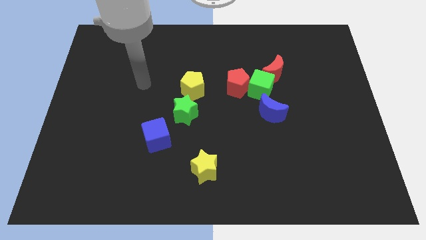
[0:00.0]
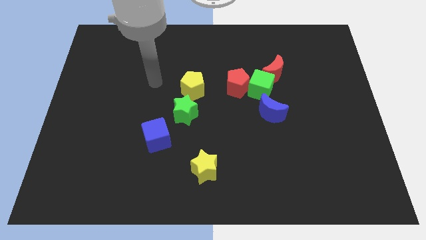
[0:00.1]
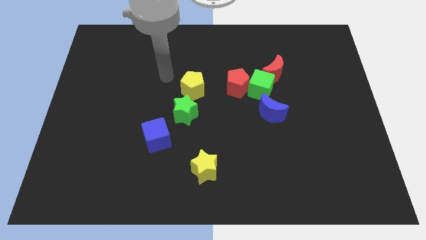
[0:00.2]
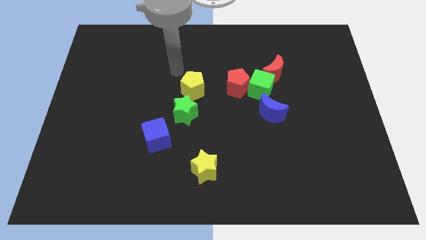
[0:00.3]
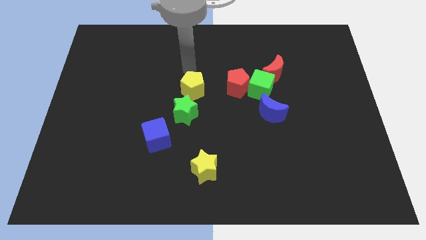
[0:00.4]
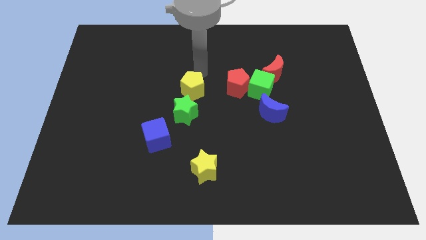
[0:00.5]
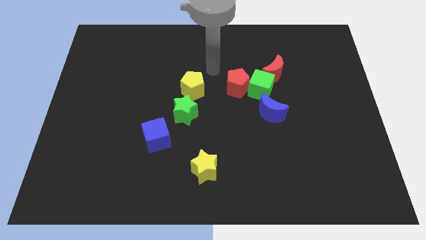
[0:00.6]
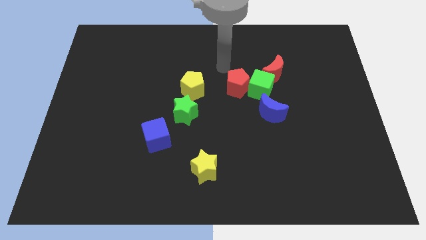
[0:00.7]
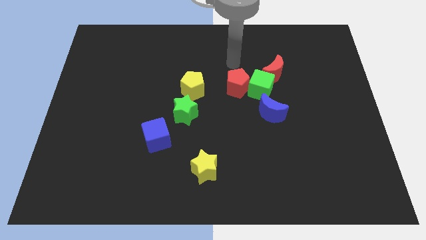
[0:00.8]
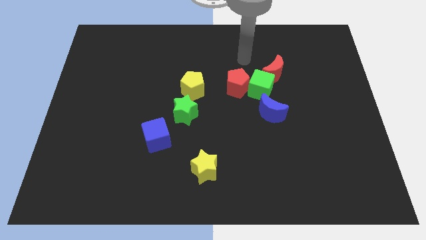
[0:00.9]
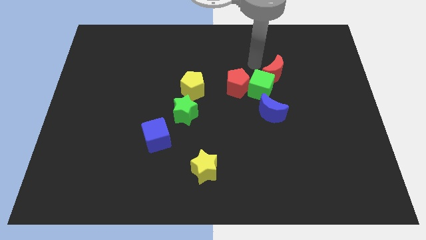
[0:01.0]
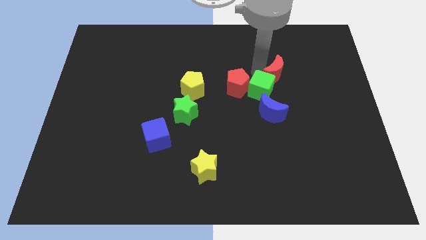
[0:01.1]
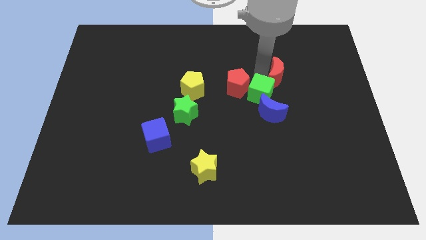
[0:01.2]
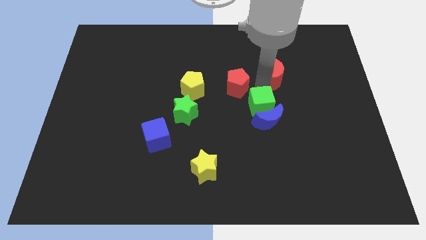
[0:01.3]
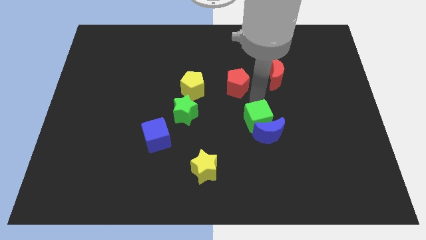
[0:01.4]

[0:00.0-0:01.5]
move the red pentagon away from the green cube

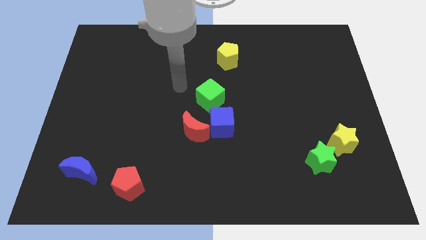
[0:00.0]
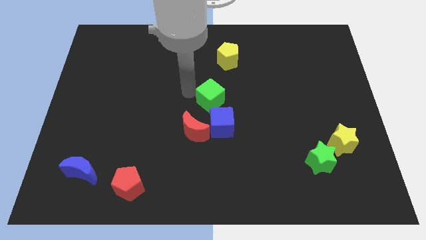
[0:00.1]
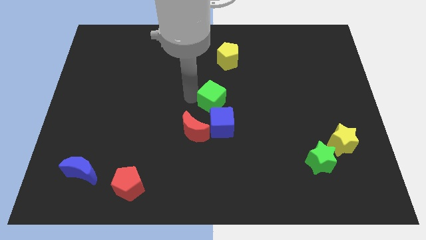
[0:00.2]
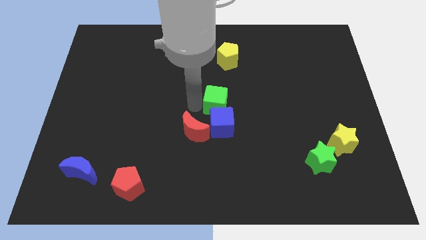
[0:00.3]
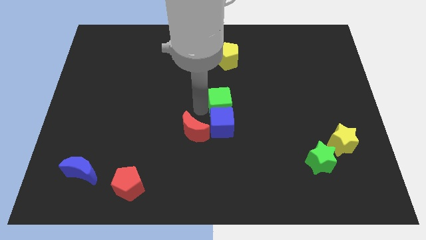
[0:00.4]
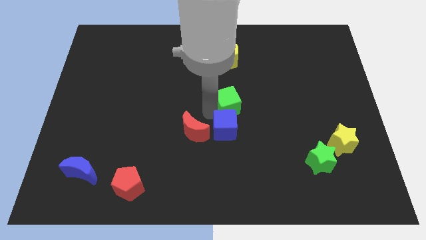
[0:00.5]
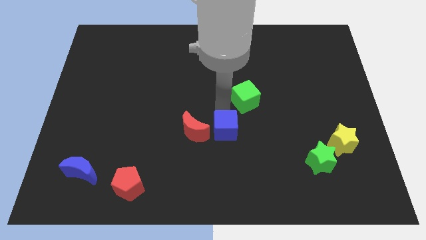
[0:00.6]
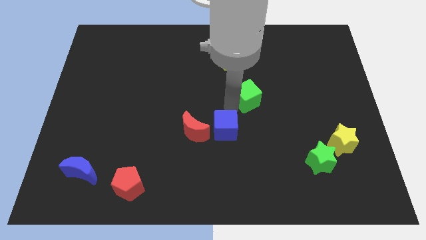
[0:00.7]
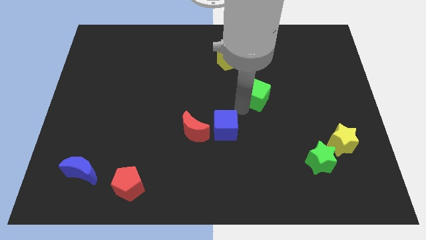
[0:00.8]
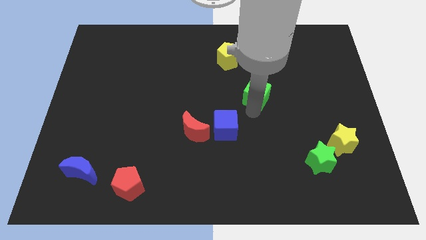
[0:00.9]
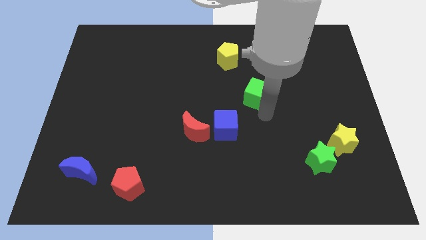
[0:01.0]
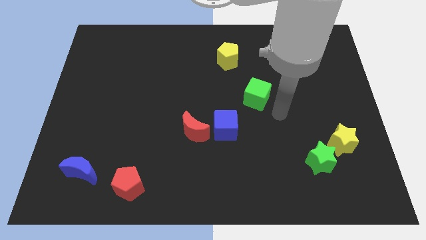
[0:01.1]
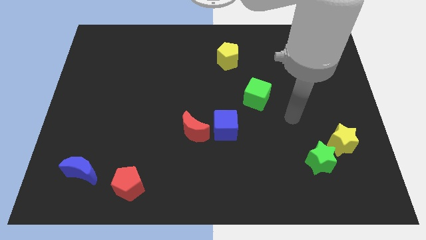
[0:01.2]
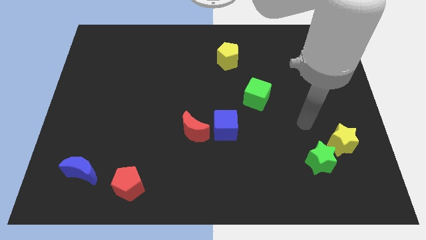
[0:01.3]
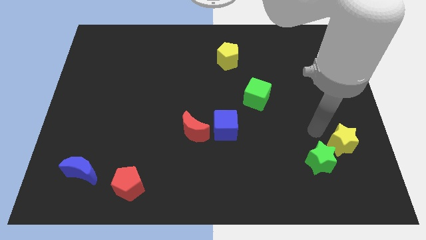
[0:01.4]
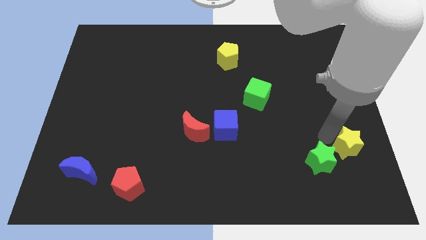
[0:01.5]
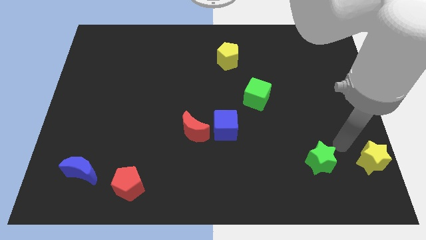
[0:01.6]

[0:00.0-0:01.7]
move the green star away from the yellow star

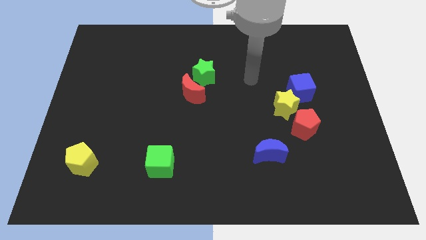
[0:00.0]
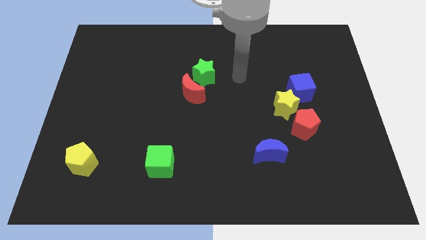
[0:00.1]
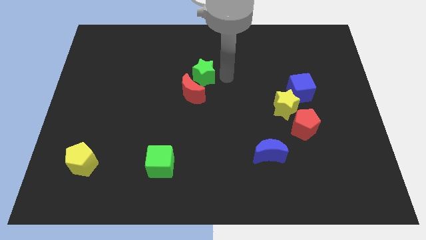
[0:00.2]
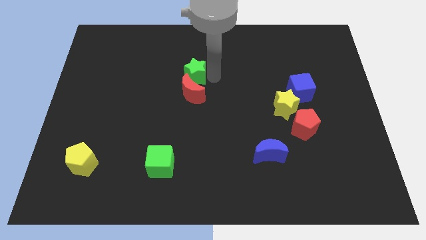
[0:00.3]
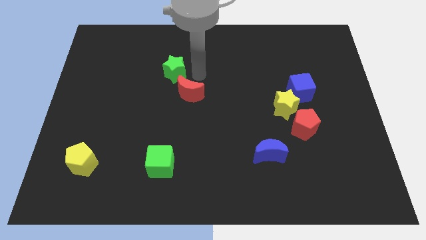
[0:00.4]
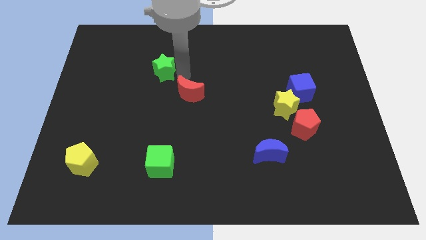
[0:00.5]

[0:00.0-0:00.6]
separate the red moon from the green star

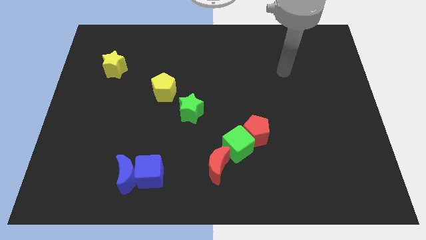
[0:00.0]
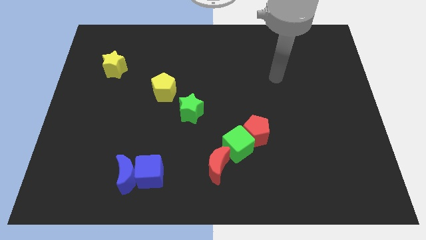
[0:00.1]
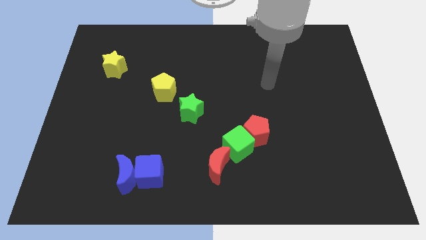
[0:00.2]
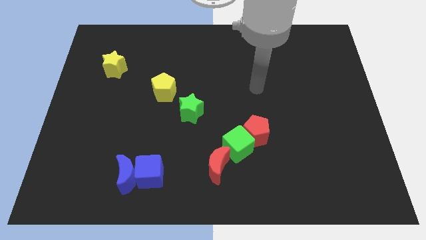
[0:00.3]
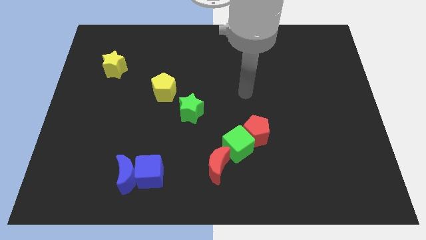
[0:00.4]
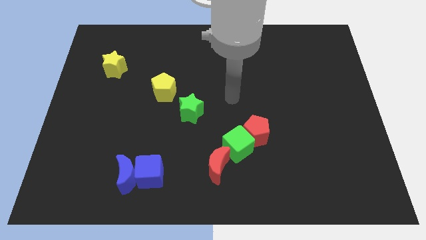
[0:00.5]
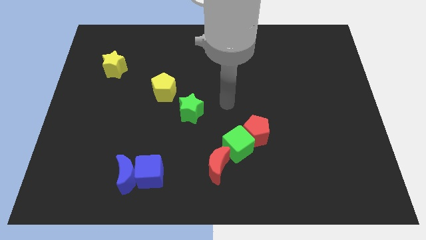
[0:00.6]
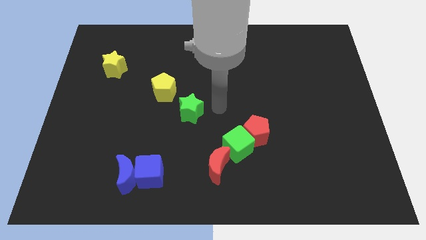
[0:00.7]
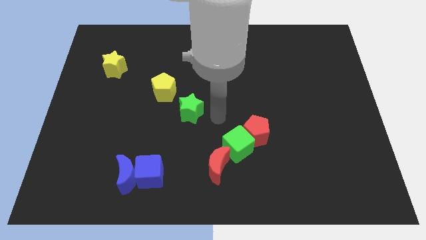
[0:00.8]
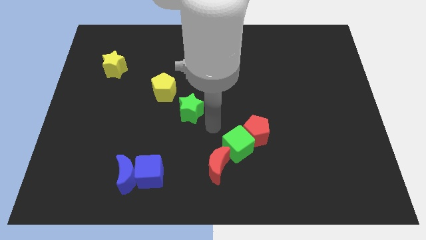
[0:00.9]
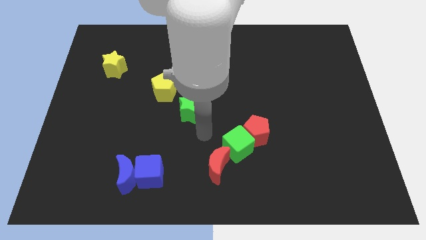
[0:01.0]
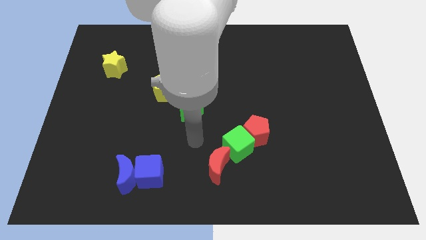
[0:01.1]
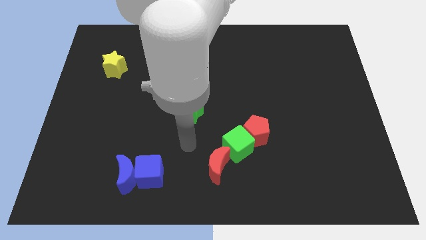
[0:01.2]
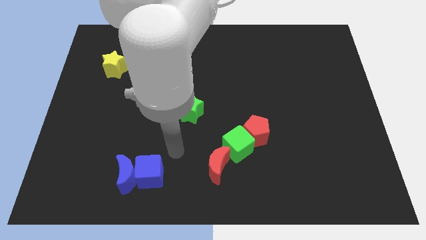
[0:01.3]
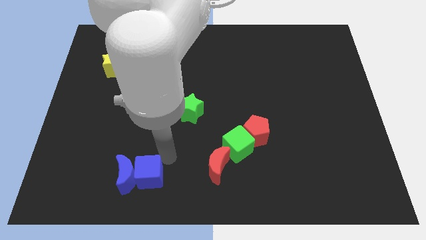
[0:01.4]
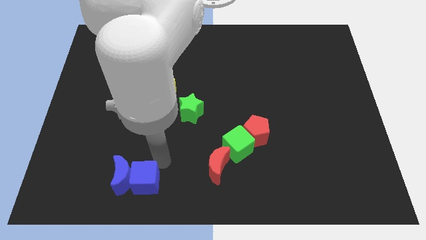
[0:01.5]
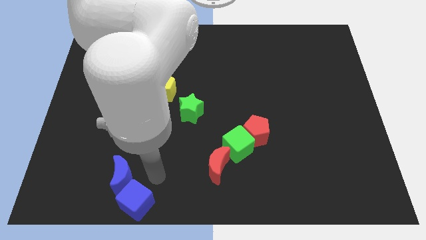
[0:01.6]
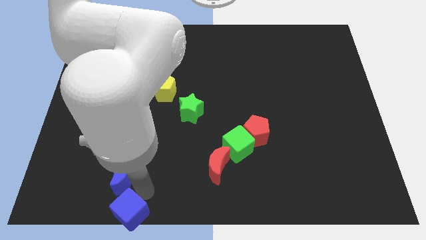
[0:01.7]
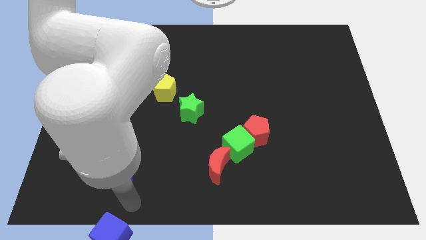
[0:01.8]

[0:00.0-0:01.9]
move the blue moon away from the blue cube

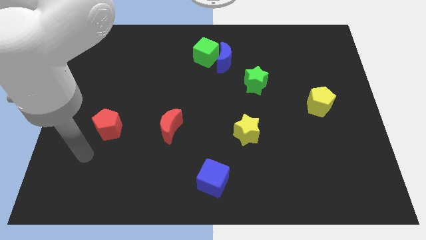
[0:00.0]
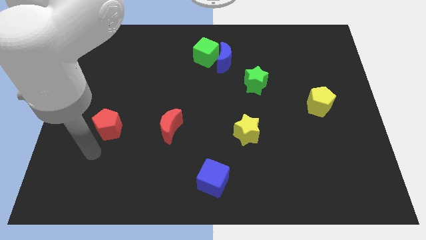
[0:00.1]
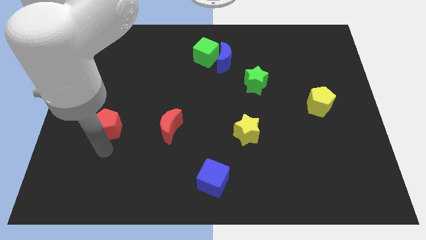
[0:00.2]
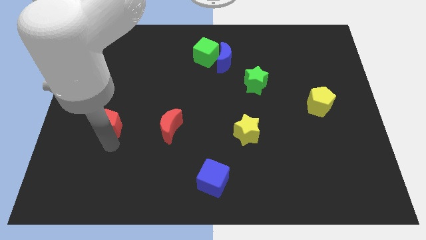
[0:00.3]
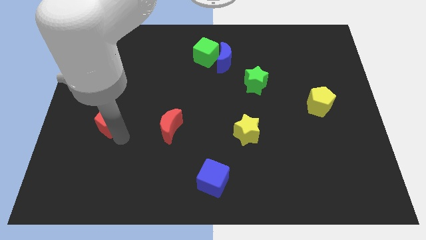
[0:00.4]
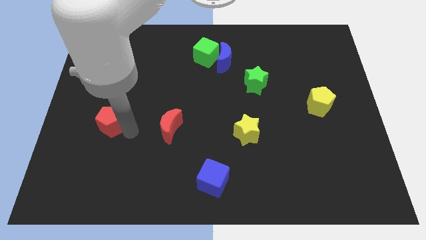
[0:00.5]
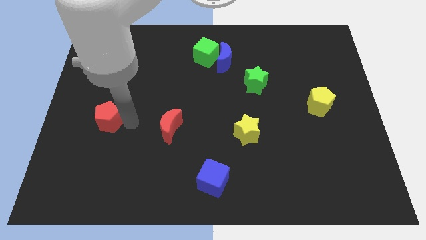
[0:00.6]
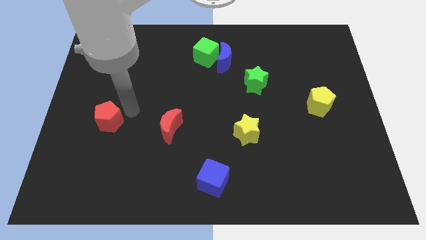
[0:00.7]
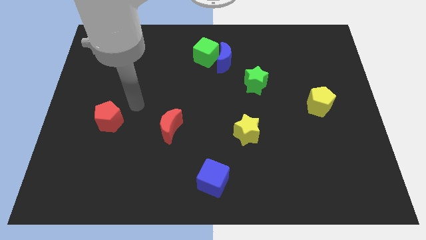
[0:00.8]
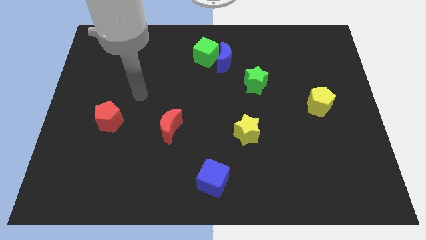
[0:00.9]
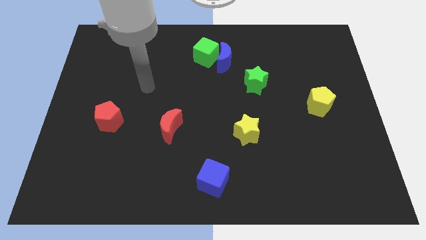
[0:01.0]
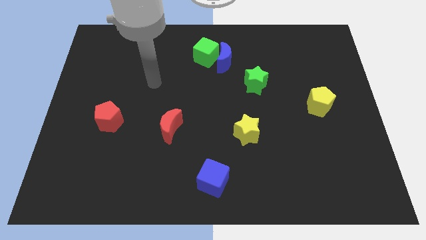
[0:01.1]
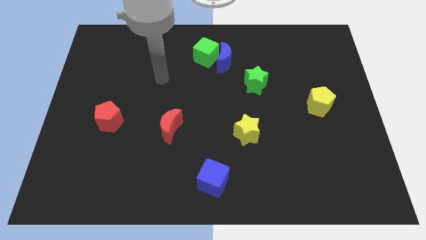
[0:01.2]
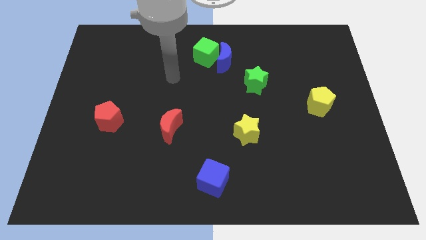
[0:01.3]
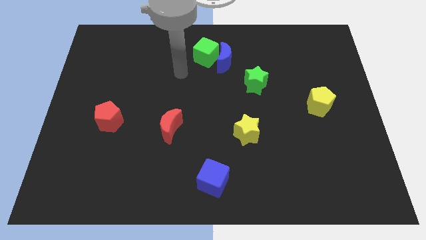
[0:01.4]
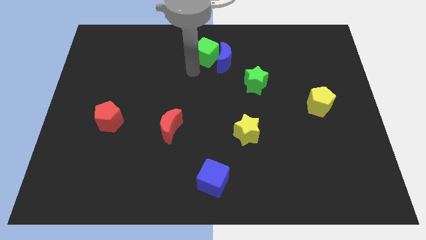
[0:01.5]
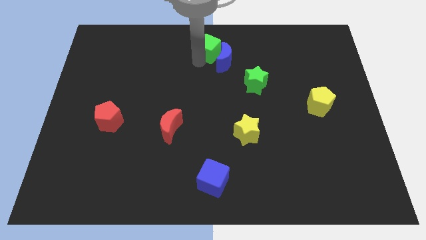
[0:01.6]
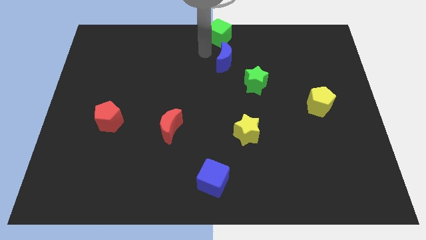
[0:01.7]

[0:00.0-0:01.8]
separate the blue moon from the green cube

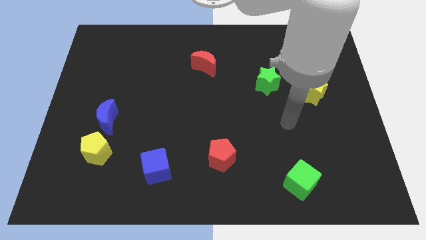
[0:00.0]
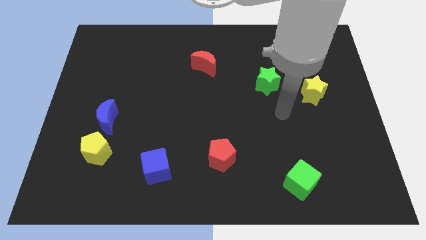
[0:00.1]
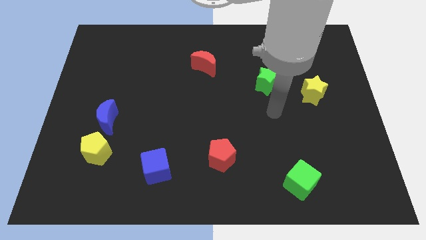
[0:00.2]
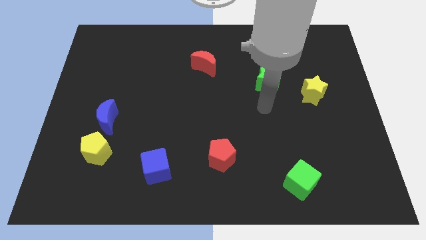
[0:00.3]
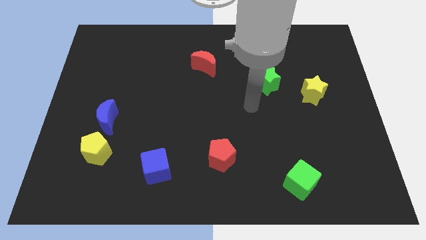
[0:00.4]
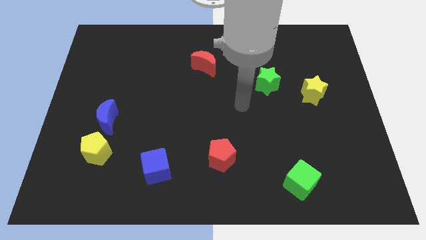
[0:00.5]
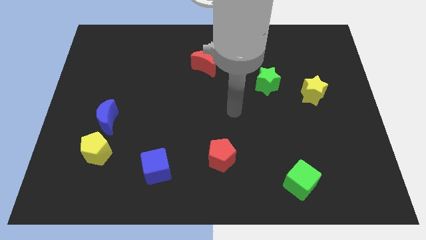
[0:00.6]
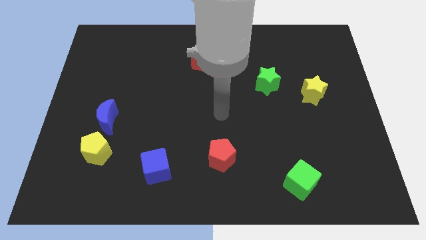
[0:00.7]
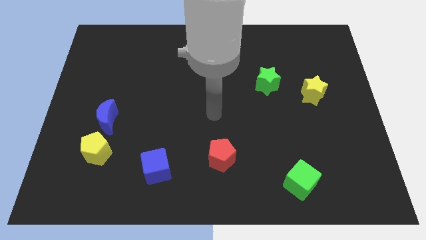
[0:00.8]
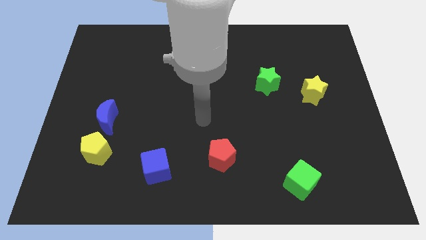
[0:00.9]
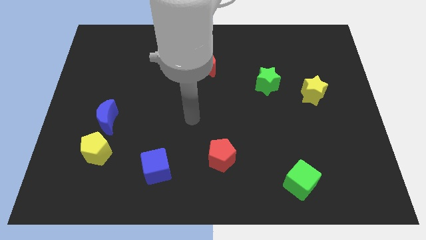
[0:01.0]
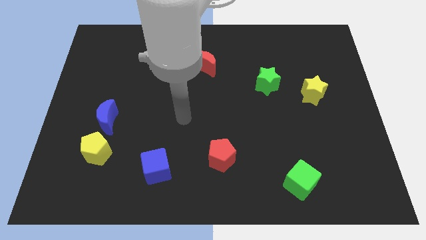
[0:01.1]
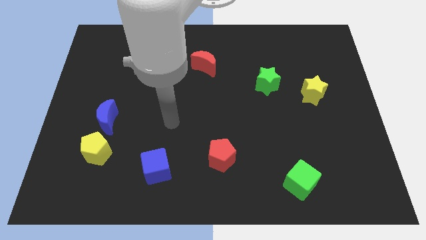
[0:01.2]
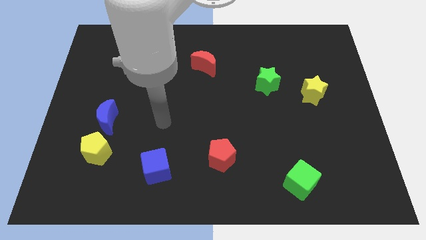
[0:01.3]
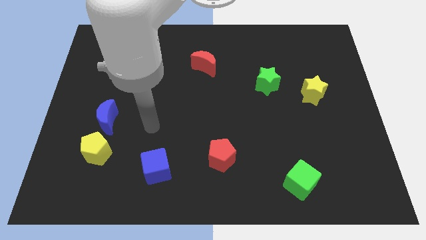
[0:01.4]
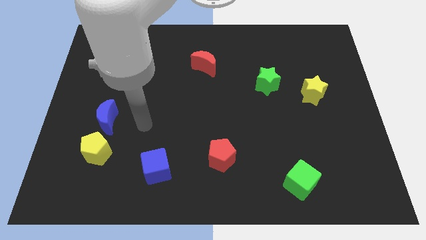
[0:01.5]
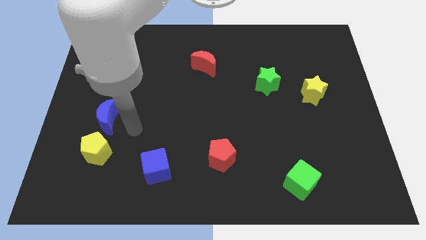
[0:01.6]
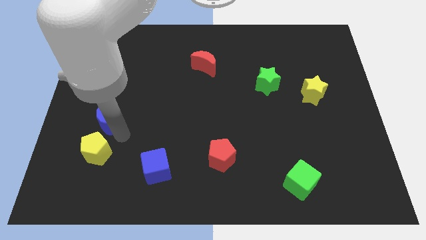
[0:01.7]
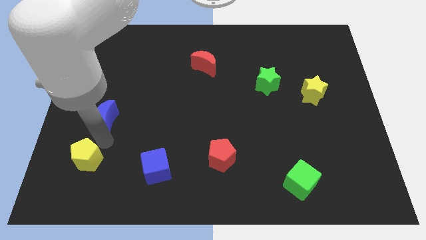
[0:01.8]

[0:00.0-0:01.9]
move the blue moon away from the yellow pentagon
